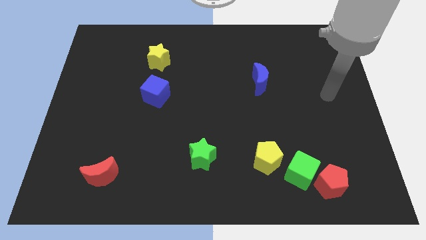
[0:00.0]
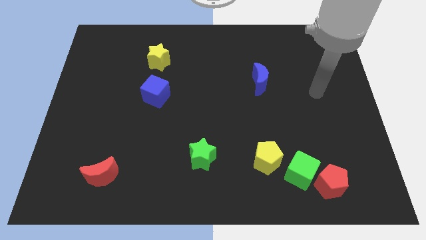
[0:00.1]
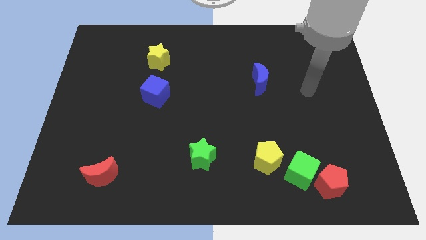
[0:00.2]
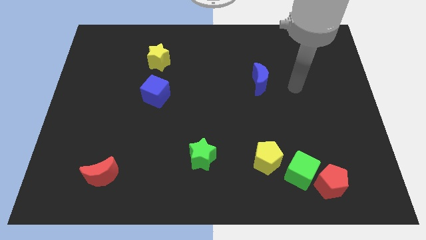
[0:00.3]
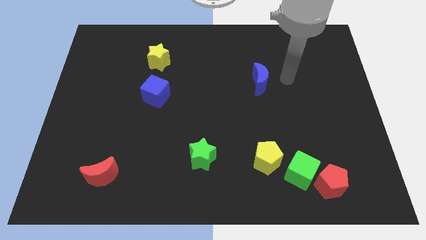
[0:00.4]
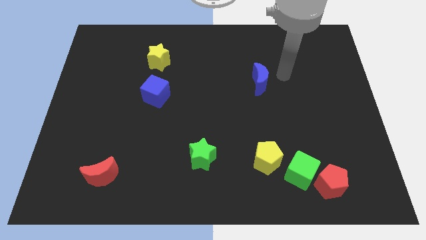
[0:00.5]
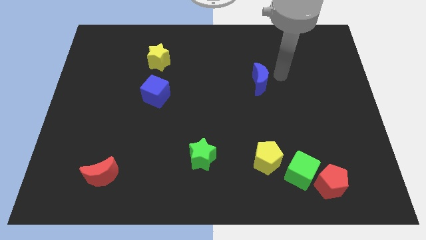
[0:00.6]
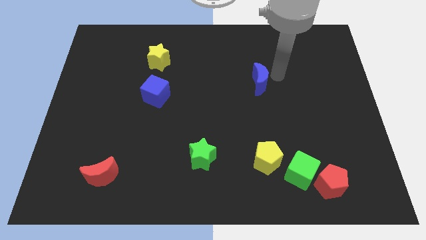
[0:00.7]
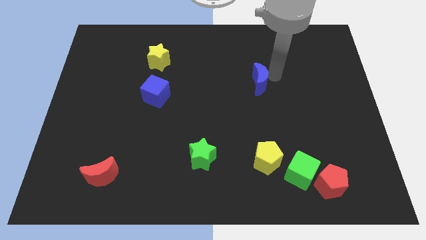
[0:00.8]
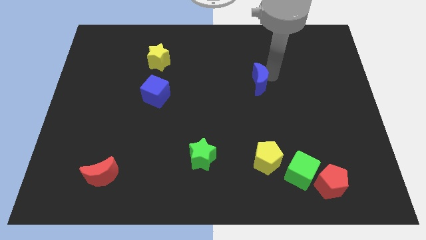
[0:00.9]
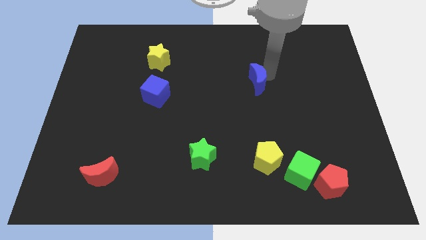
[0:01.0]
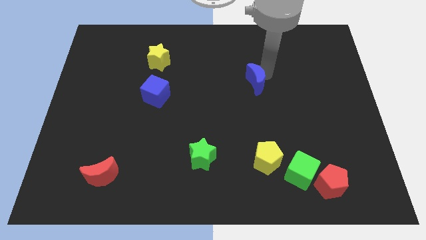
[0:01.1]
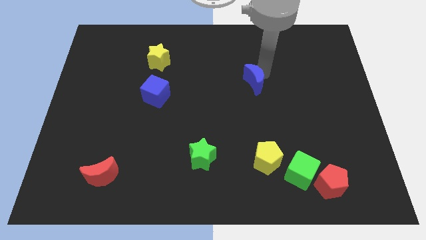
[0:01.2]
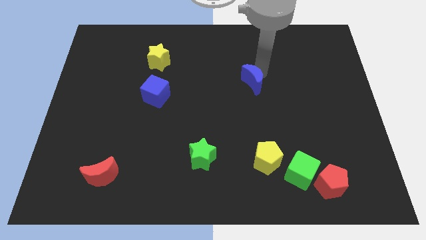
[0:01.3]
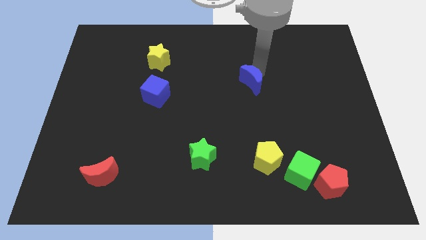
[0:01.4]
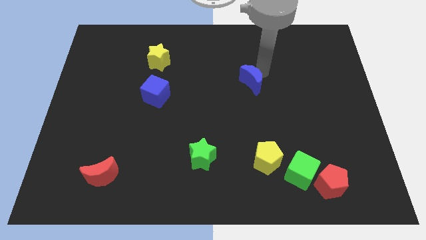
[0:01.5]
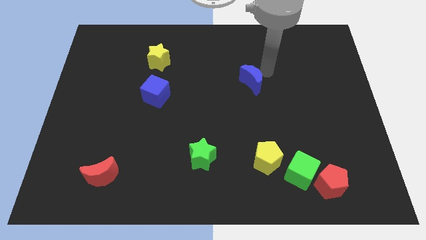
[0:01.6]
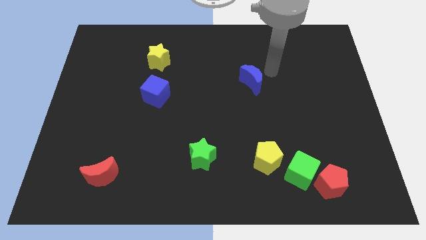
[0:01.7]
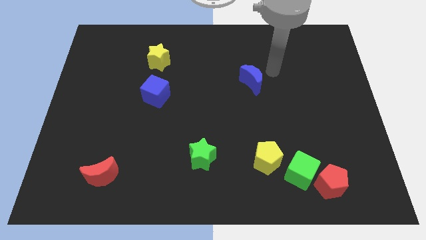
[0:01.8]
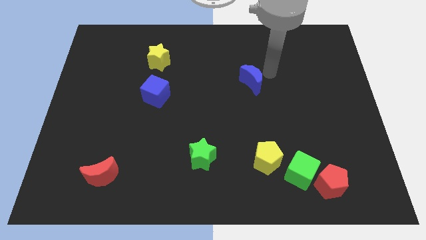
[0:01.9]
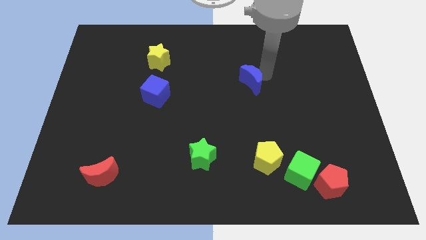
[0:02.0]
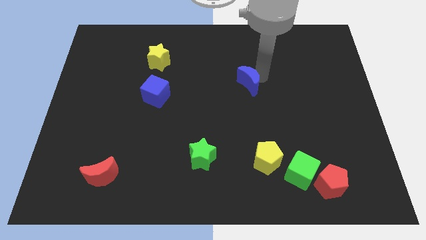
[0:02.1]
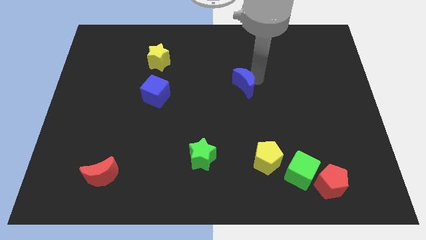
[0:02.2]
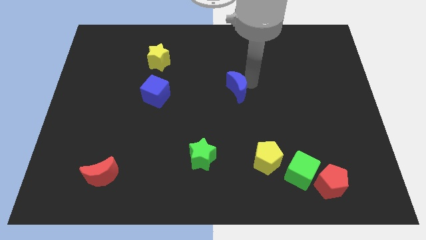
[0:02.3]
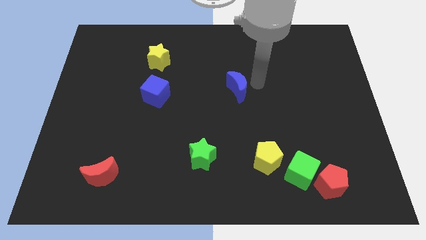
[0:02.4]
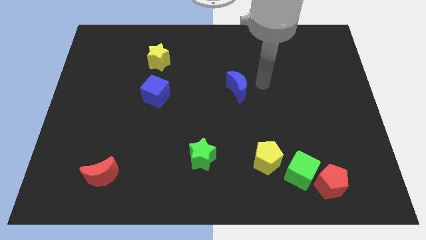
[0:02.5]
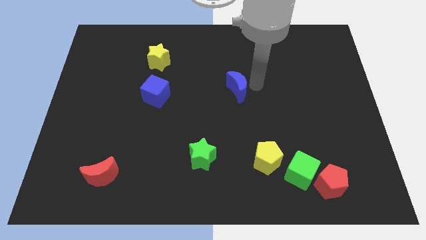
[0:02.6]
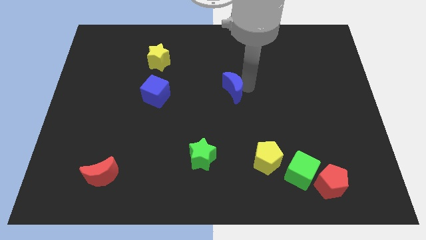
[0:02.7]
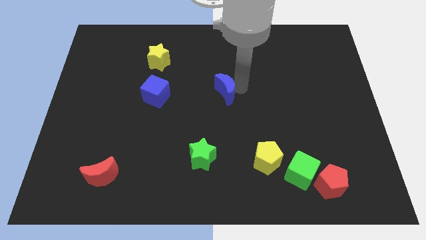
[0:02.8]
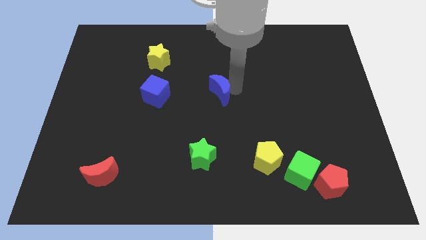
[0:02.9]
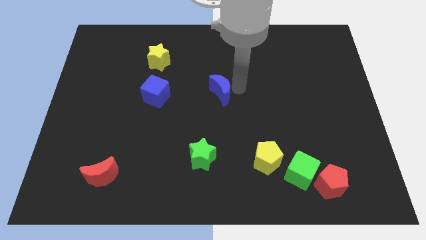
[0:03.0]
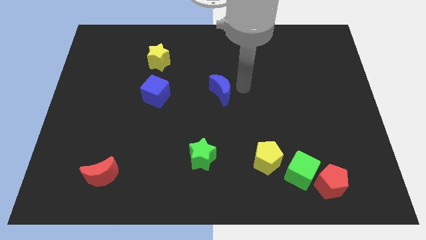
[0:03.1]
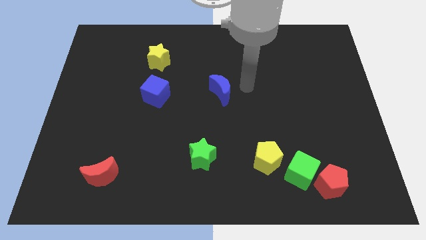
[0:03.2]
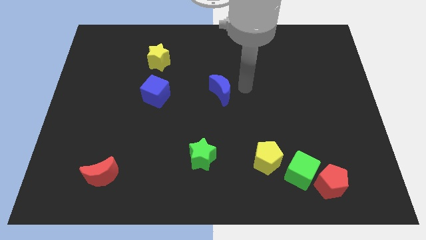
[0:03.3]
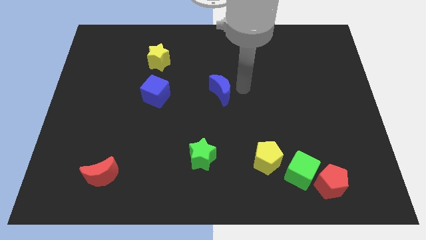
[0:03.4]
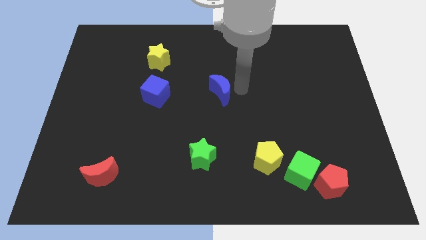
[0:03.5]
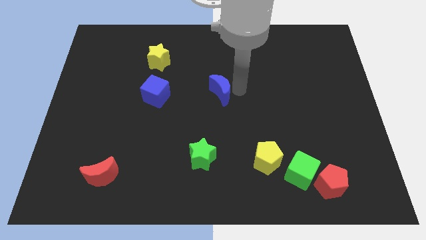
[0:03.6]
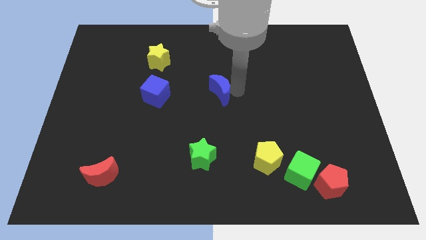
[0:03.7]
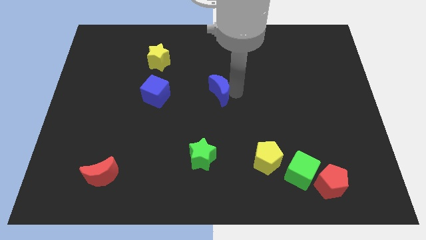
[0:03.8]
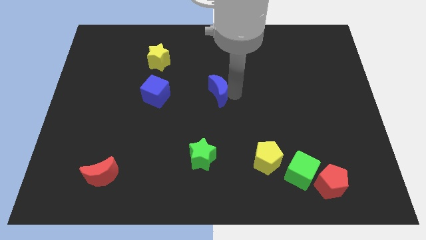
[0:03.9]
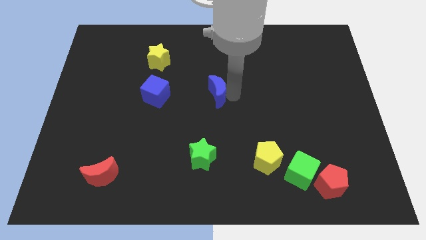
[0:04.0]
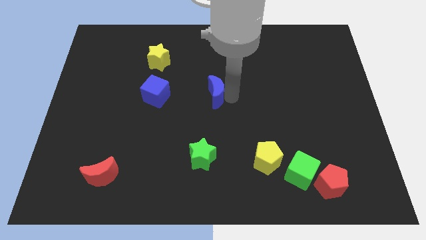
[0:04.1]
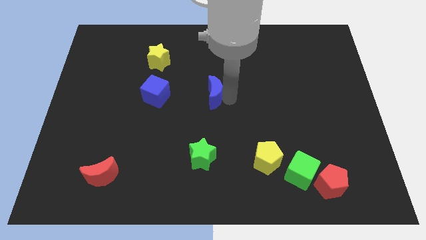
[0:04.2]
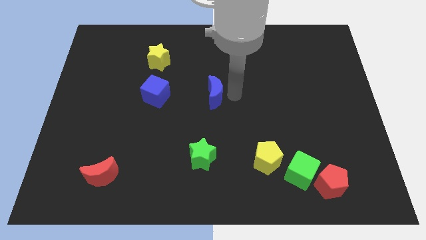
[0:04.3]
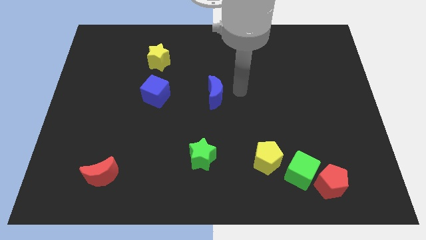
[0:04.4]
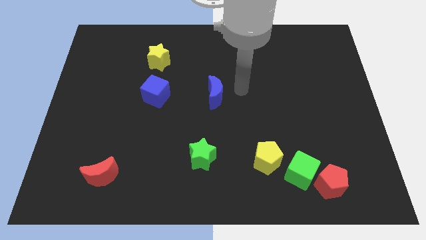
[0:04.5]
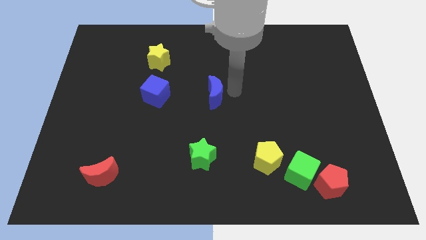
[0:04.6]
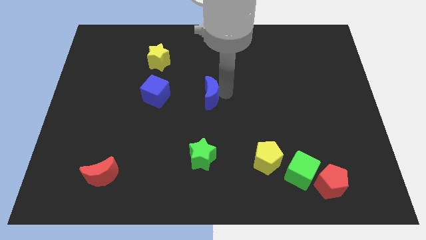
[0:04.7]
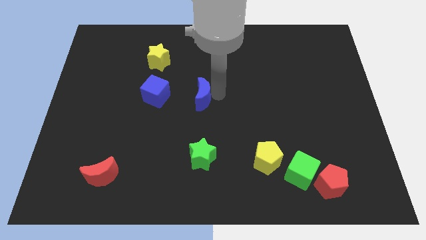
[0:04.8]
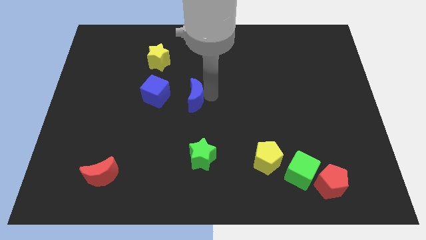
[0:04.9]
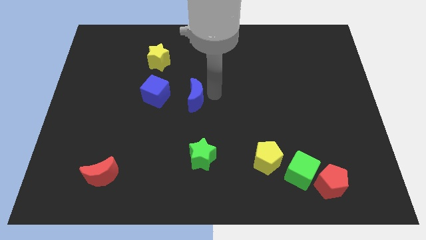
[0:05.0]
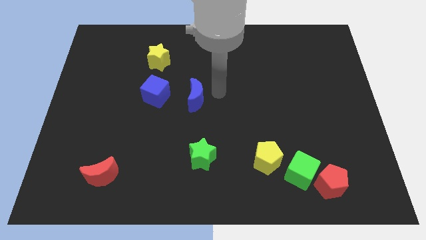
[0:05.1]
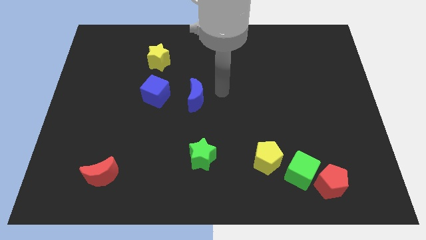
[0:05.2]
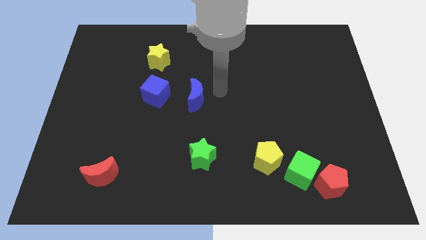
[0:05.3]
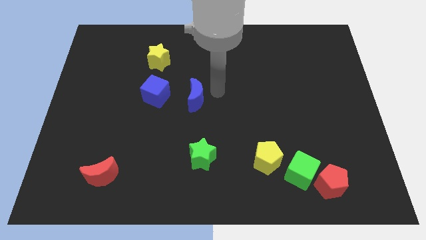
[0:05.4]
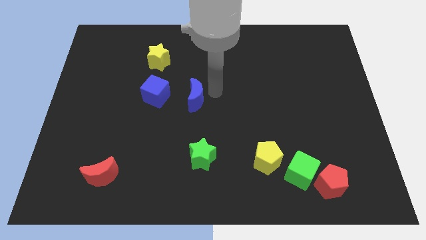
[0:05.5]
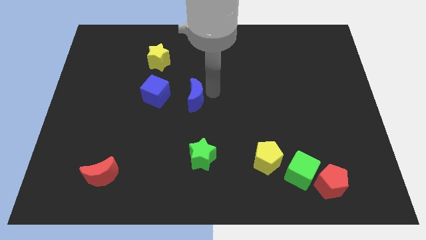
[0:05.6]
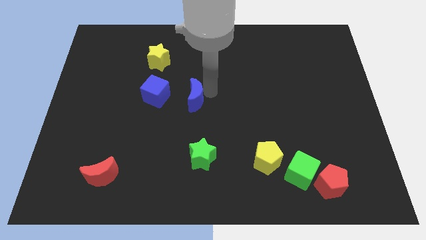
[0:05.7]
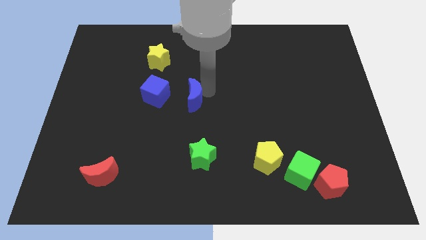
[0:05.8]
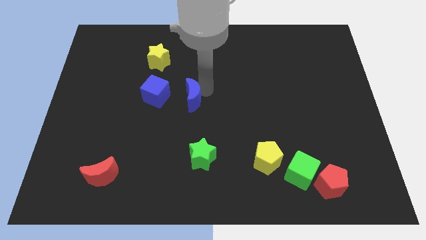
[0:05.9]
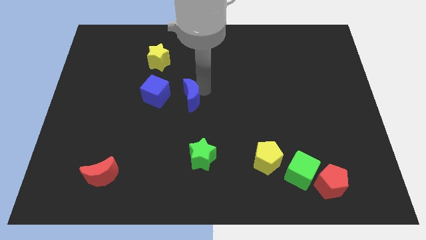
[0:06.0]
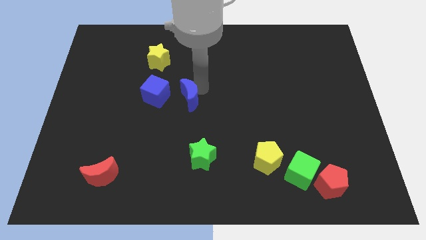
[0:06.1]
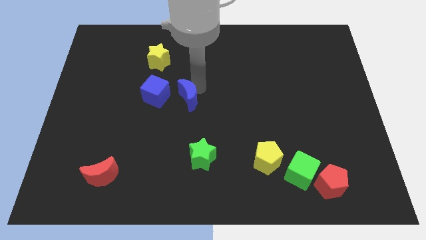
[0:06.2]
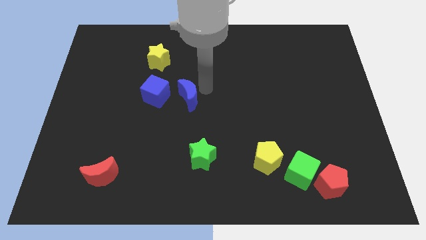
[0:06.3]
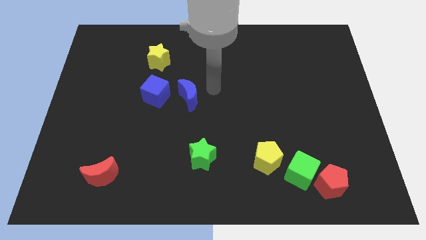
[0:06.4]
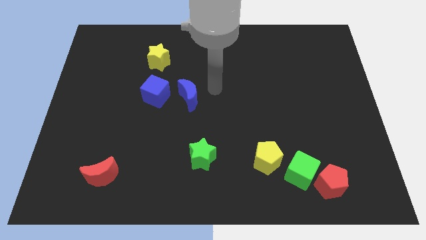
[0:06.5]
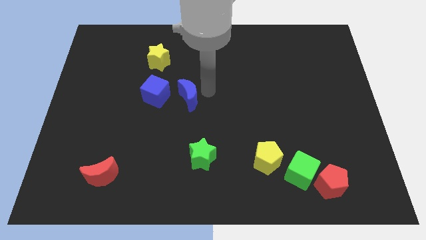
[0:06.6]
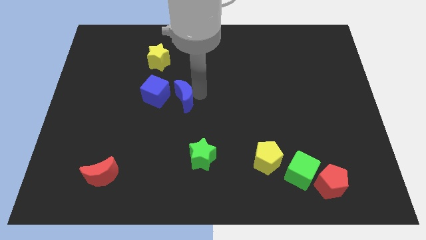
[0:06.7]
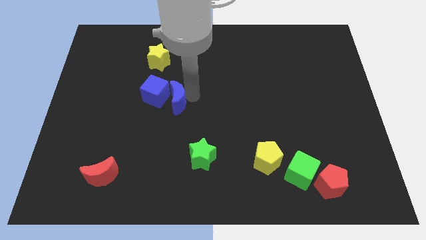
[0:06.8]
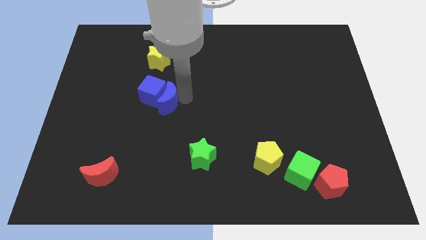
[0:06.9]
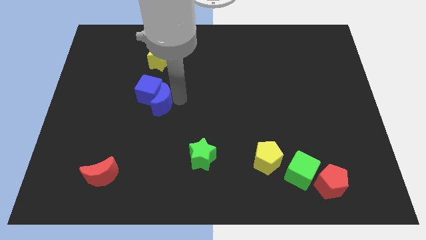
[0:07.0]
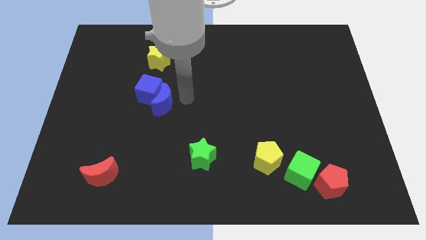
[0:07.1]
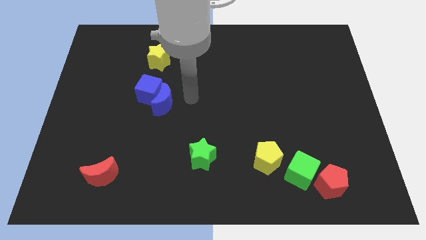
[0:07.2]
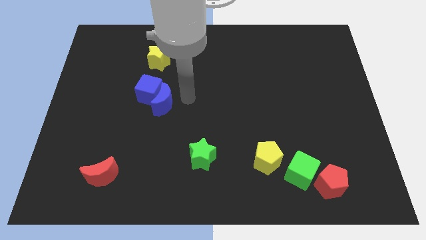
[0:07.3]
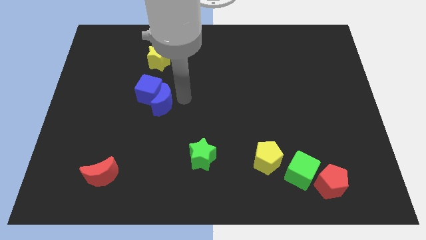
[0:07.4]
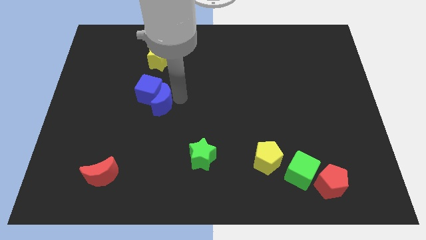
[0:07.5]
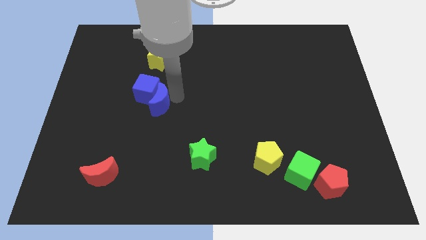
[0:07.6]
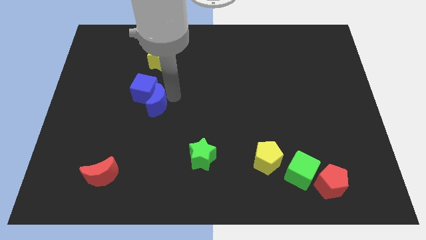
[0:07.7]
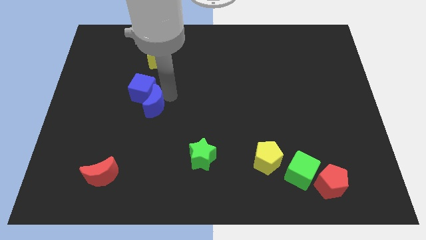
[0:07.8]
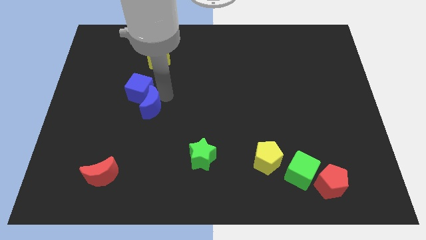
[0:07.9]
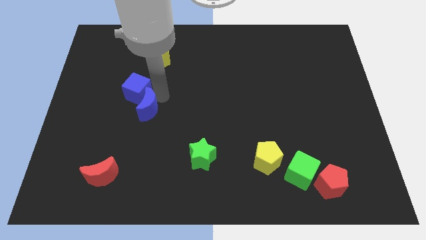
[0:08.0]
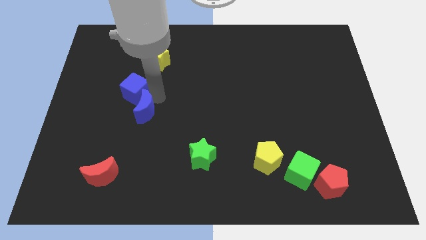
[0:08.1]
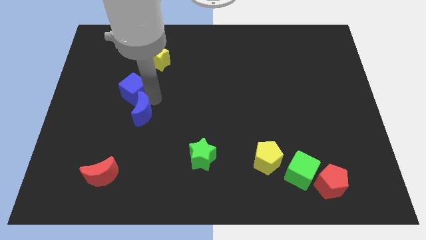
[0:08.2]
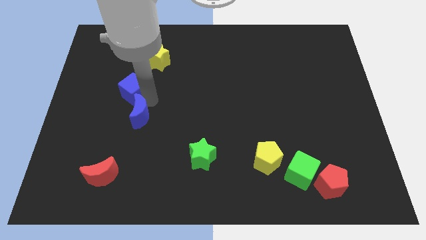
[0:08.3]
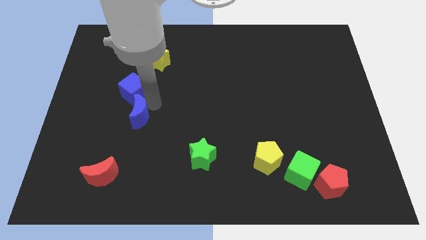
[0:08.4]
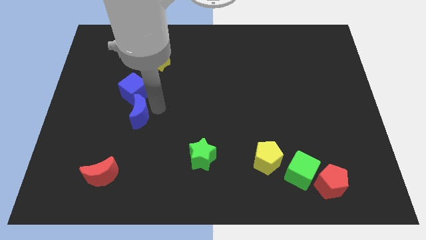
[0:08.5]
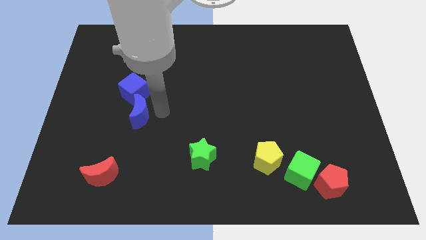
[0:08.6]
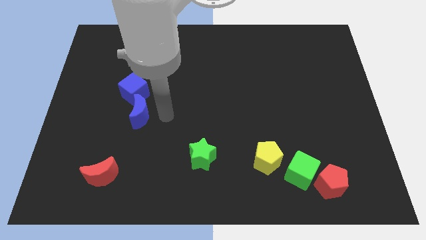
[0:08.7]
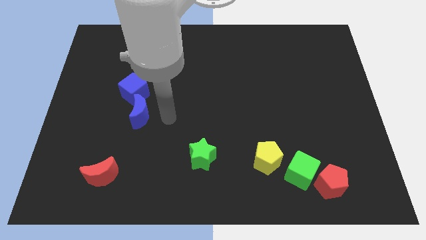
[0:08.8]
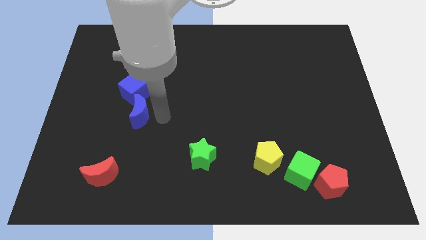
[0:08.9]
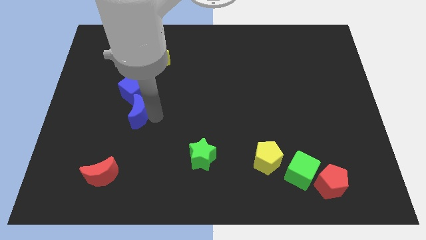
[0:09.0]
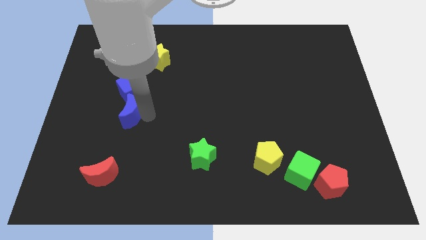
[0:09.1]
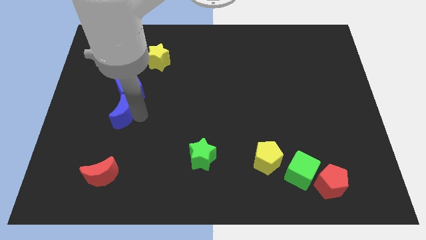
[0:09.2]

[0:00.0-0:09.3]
push the blue moon diagonally down and to the left of the blue cube
